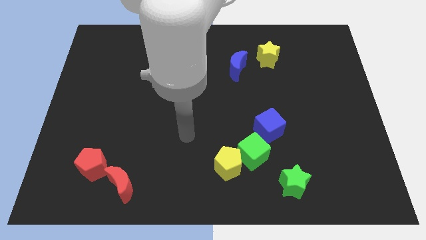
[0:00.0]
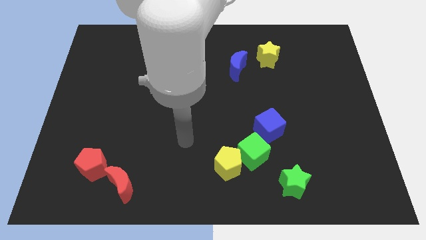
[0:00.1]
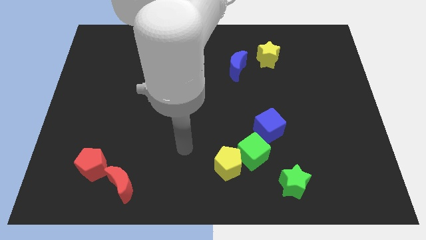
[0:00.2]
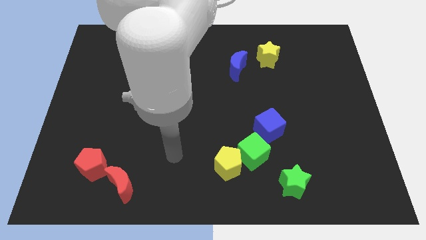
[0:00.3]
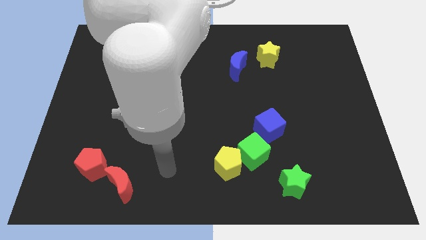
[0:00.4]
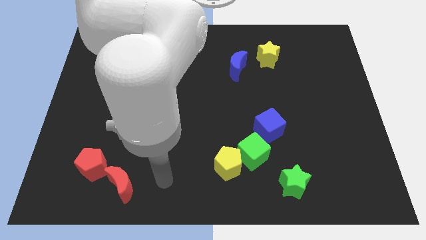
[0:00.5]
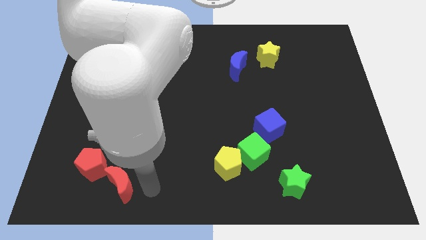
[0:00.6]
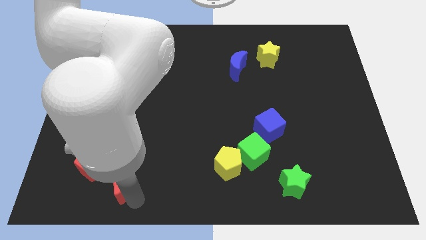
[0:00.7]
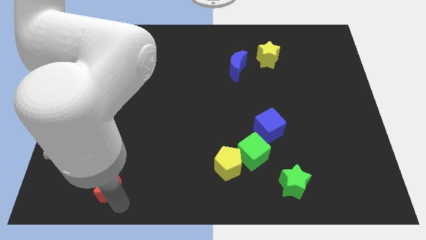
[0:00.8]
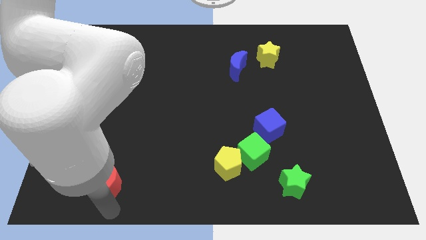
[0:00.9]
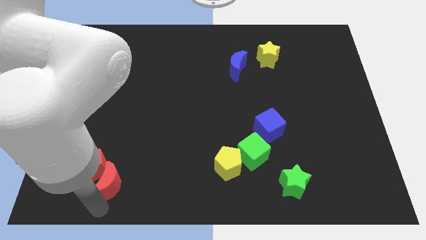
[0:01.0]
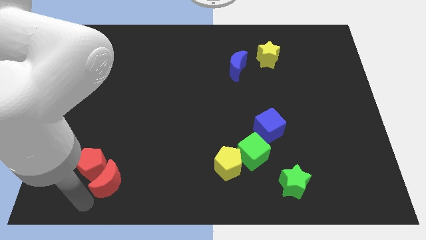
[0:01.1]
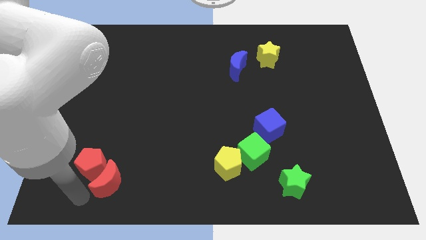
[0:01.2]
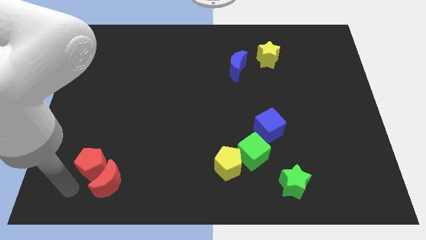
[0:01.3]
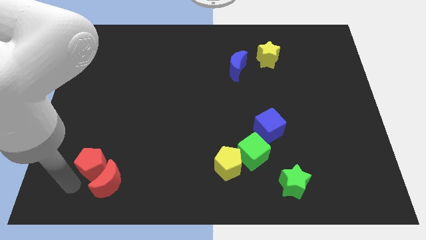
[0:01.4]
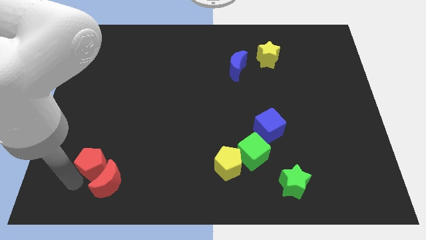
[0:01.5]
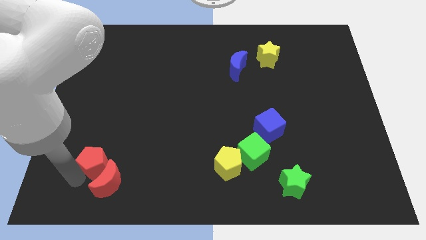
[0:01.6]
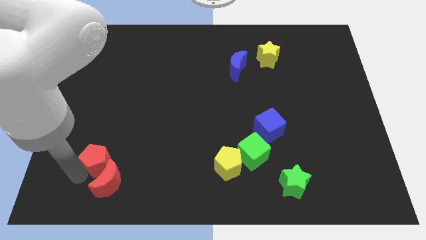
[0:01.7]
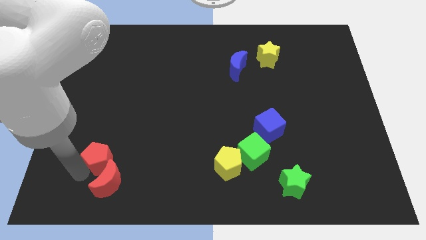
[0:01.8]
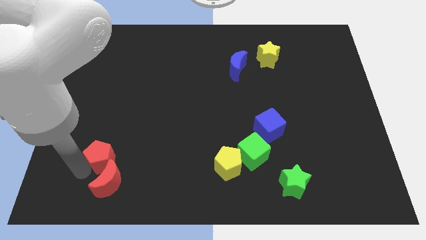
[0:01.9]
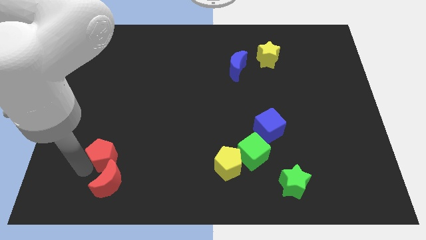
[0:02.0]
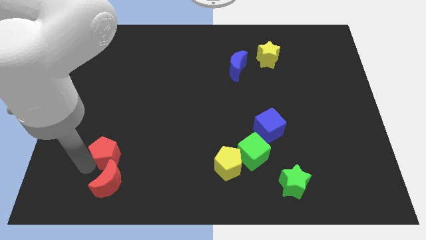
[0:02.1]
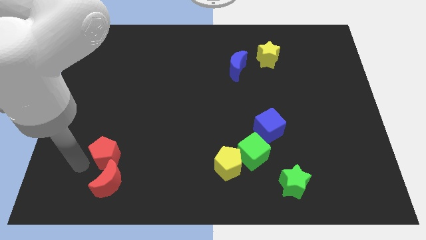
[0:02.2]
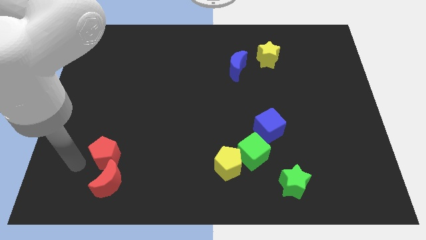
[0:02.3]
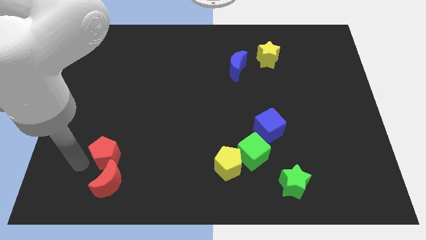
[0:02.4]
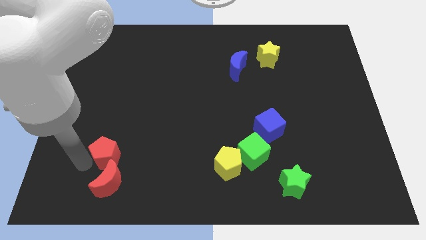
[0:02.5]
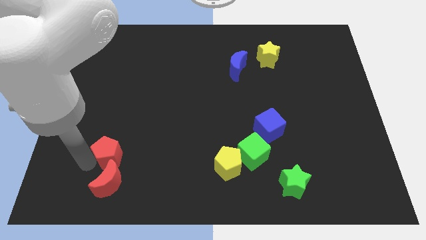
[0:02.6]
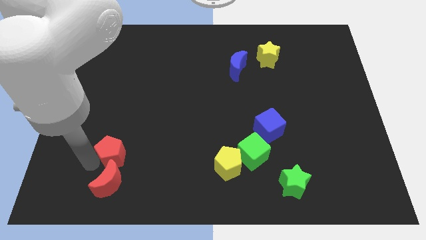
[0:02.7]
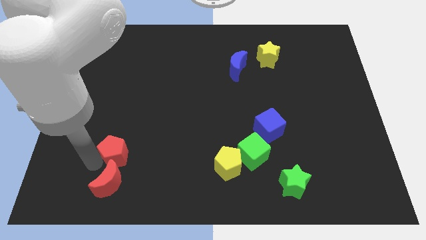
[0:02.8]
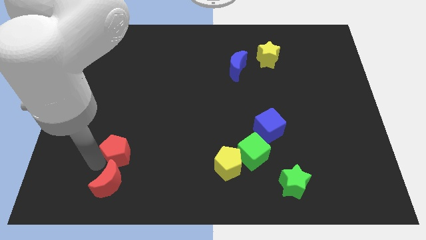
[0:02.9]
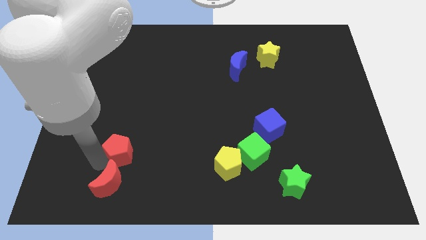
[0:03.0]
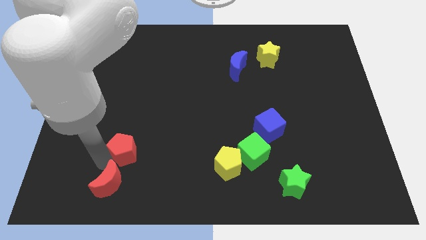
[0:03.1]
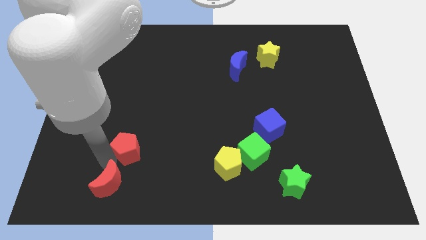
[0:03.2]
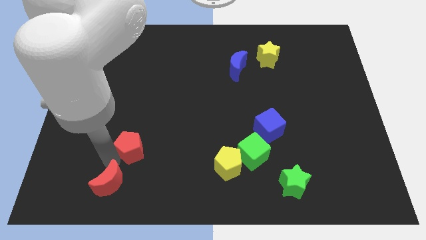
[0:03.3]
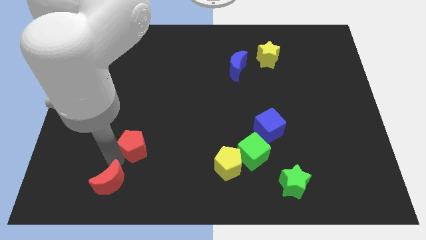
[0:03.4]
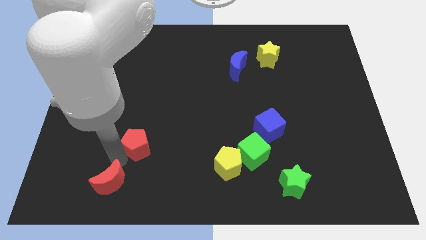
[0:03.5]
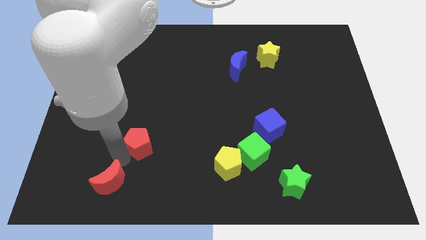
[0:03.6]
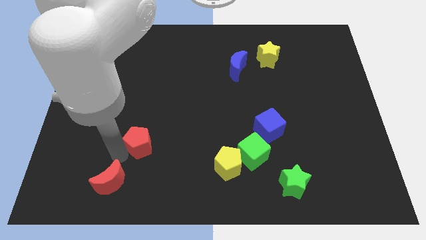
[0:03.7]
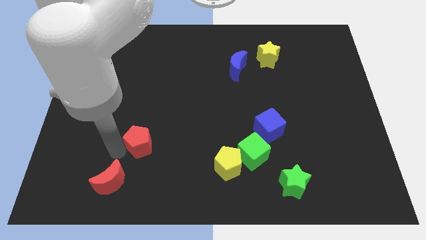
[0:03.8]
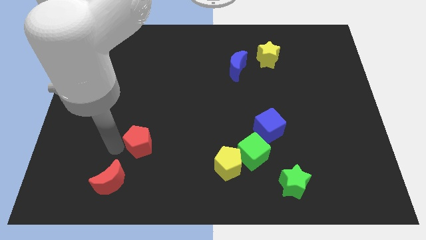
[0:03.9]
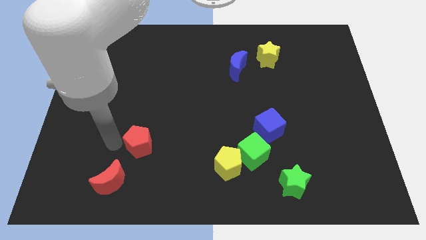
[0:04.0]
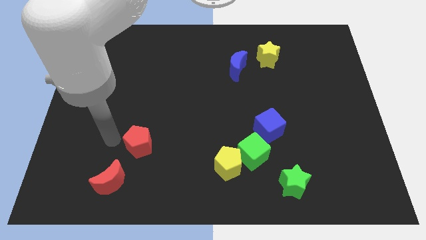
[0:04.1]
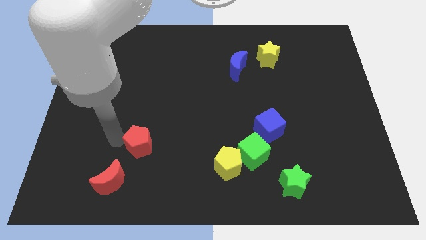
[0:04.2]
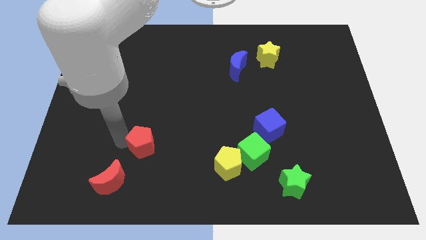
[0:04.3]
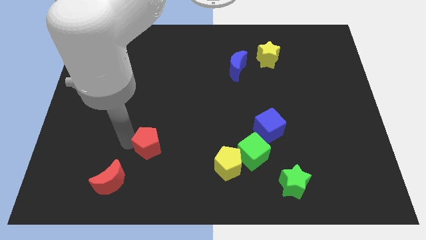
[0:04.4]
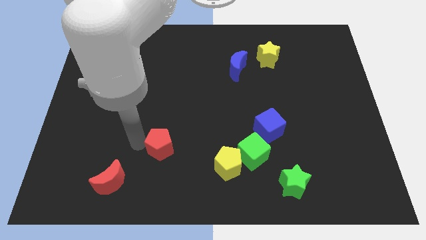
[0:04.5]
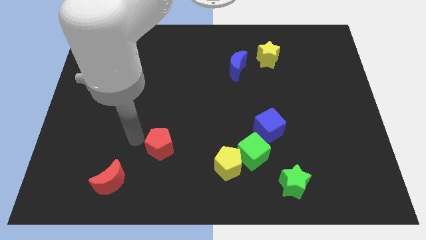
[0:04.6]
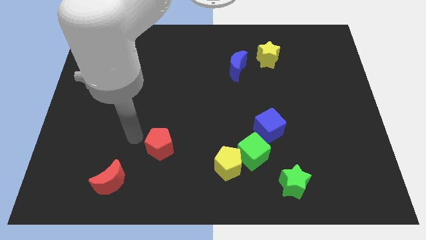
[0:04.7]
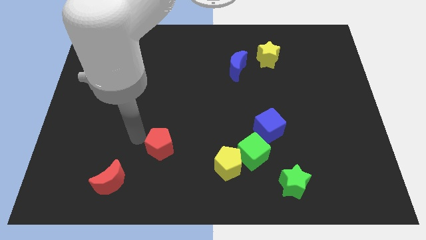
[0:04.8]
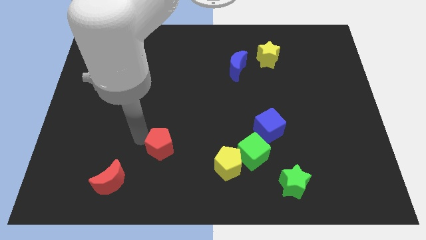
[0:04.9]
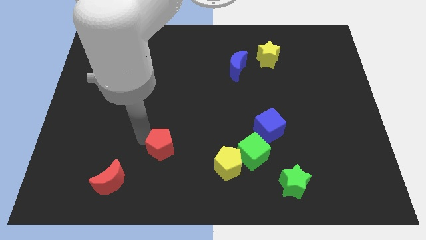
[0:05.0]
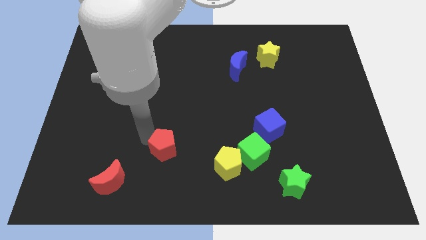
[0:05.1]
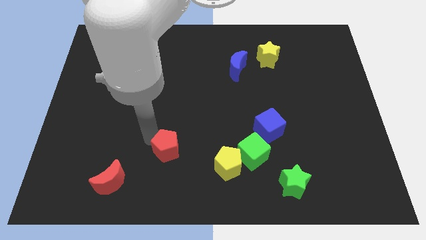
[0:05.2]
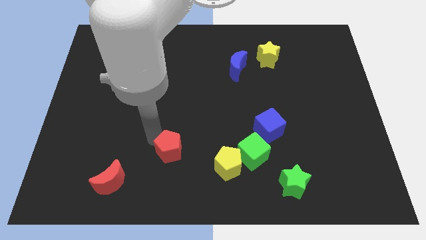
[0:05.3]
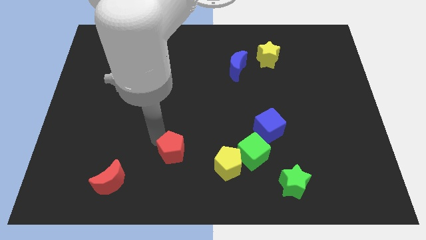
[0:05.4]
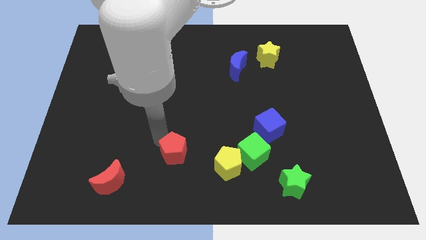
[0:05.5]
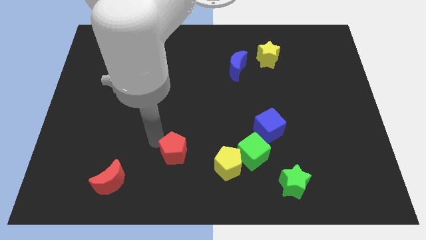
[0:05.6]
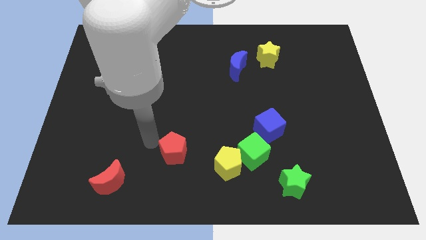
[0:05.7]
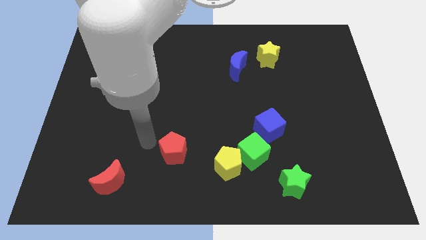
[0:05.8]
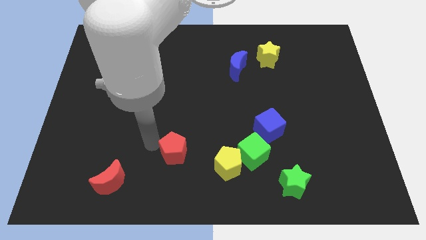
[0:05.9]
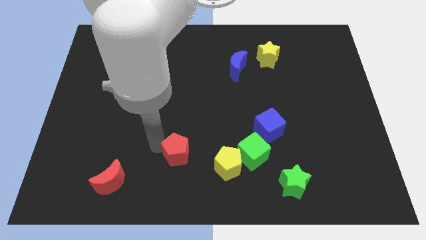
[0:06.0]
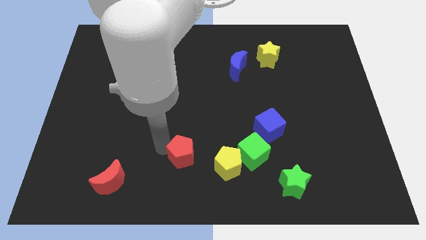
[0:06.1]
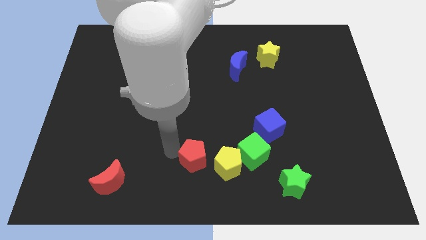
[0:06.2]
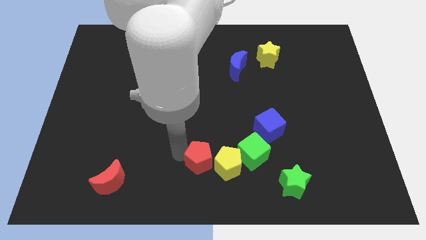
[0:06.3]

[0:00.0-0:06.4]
push the red pentagon close to the yellow pentagon
